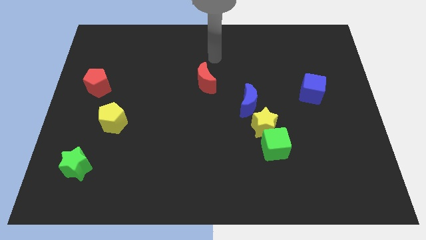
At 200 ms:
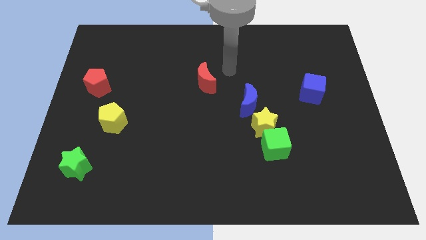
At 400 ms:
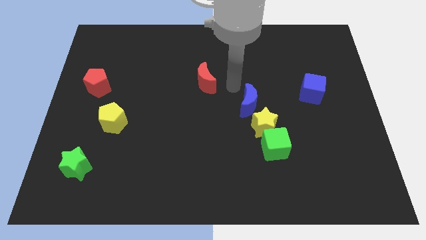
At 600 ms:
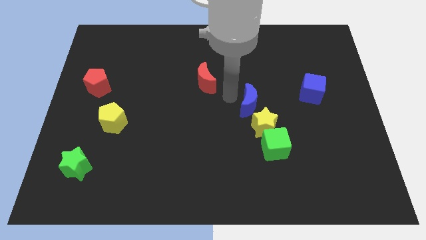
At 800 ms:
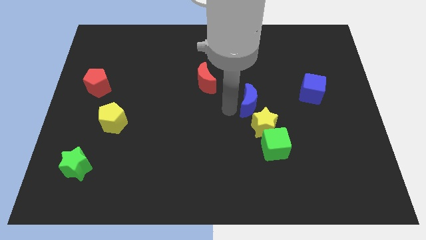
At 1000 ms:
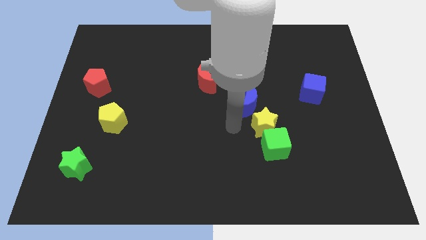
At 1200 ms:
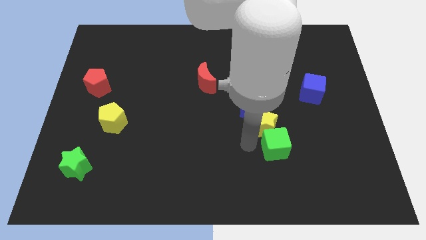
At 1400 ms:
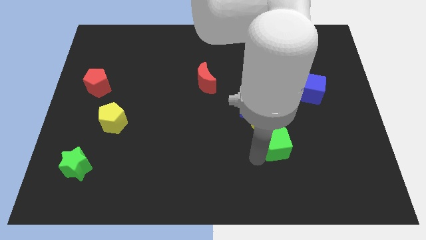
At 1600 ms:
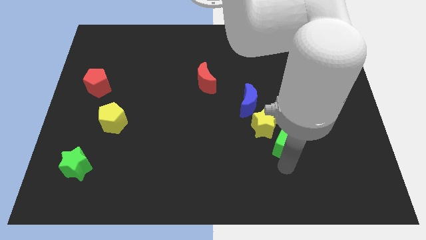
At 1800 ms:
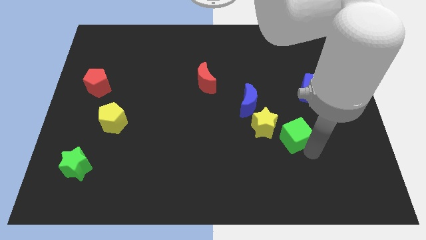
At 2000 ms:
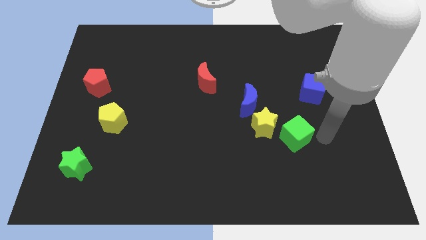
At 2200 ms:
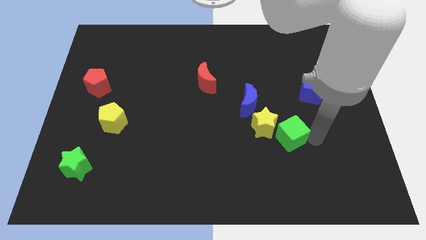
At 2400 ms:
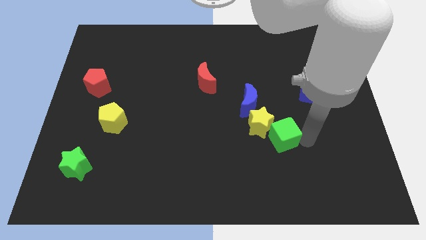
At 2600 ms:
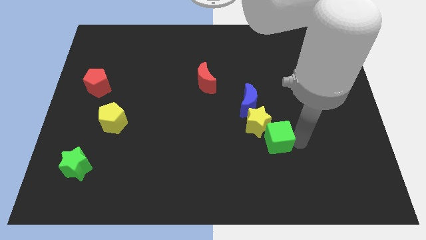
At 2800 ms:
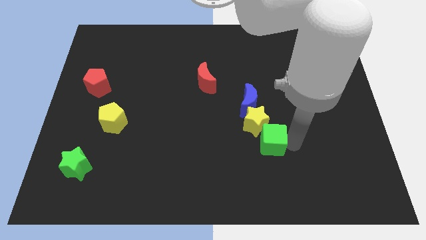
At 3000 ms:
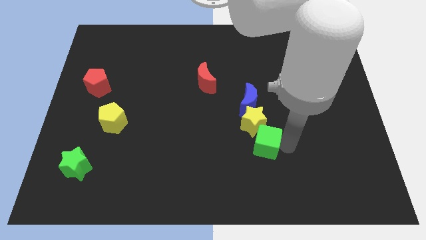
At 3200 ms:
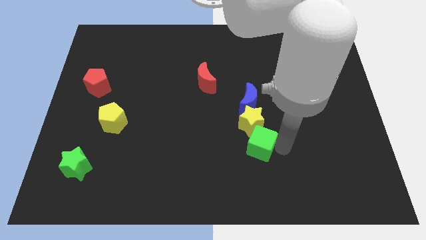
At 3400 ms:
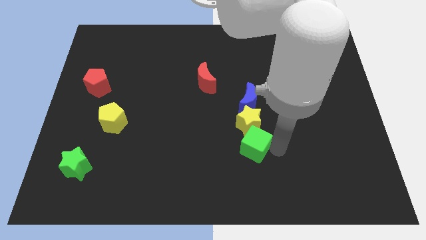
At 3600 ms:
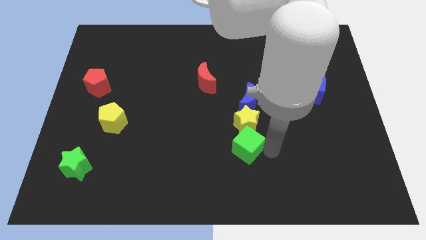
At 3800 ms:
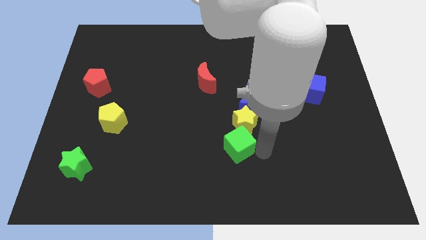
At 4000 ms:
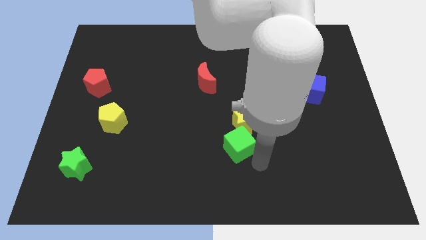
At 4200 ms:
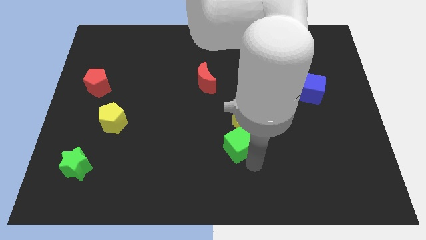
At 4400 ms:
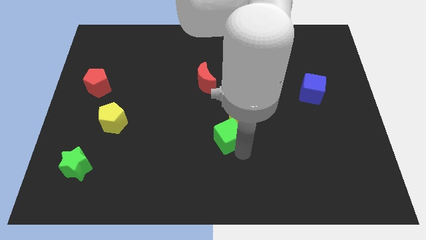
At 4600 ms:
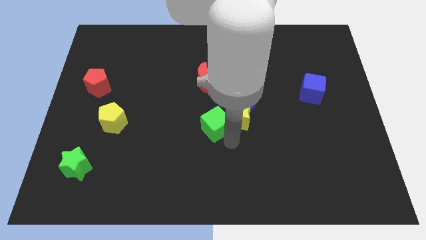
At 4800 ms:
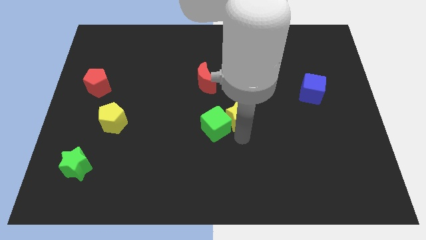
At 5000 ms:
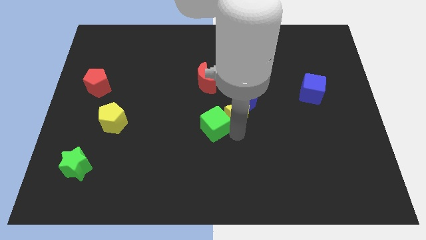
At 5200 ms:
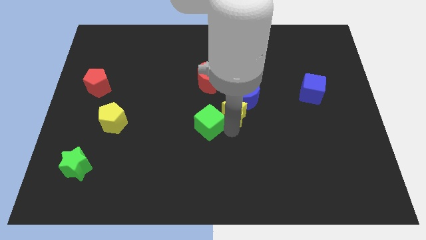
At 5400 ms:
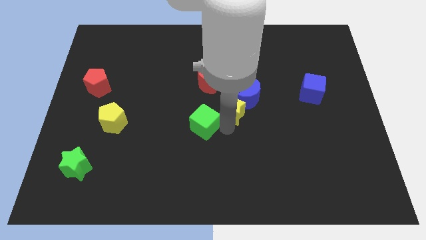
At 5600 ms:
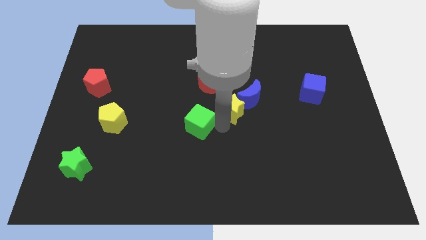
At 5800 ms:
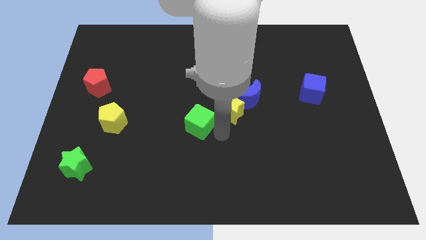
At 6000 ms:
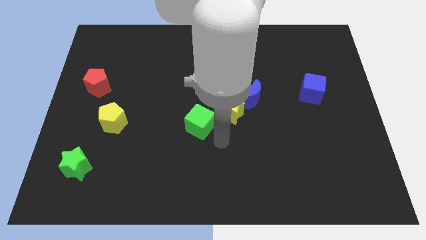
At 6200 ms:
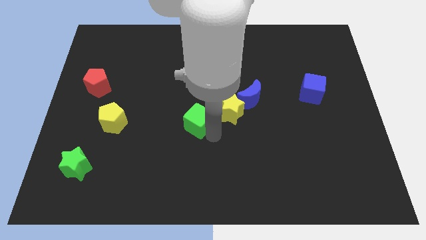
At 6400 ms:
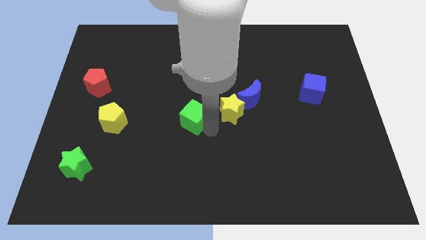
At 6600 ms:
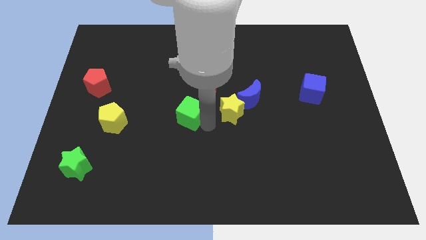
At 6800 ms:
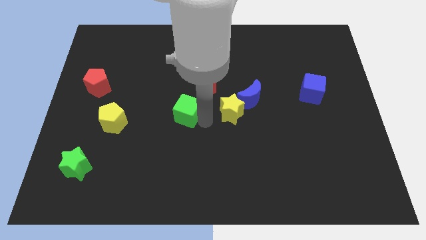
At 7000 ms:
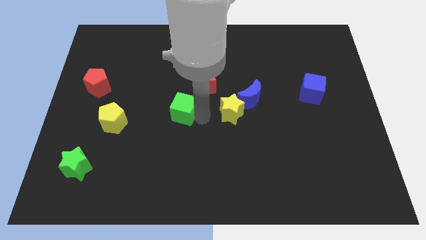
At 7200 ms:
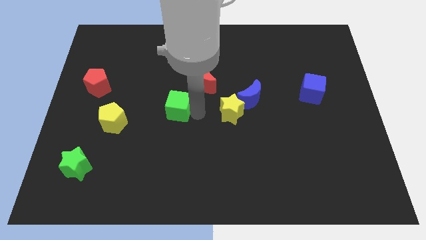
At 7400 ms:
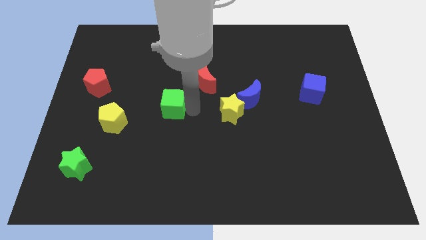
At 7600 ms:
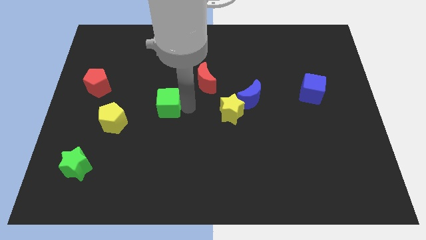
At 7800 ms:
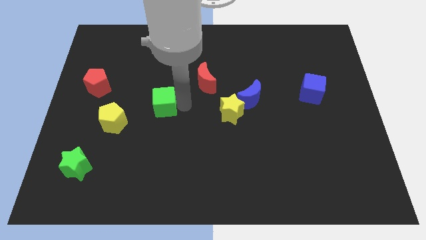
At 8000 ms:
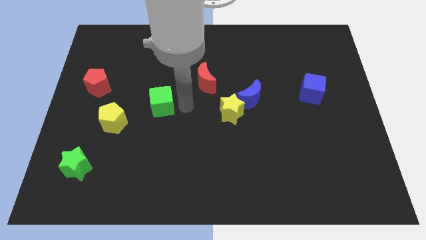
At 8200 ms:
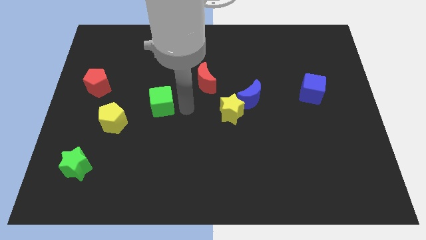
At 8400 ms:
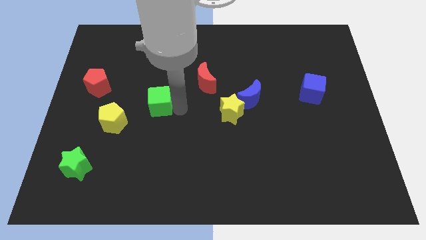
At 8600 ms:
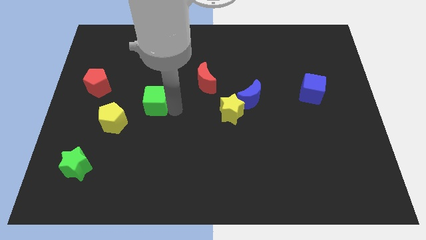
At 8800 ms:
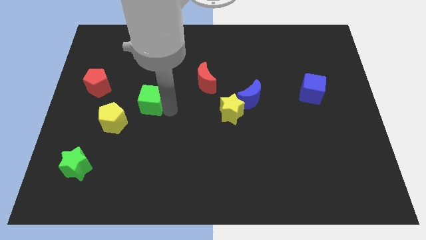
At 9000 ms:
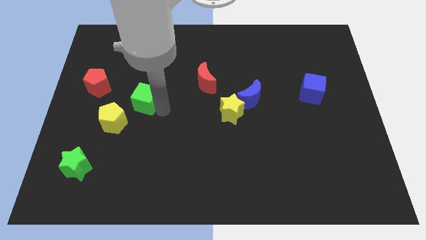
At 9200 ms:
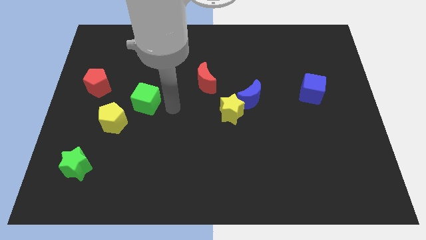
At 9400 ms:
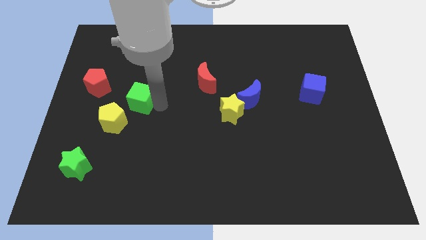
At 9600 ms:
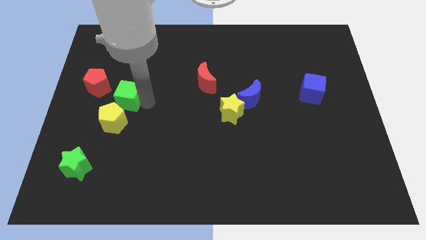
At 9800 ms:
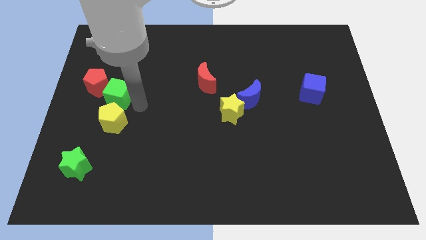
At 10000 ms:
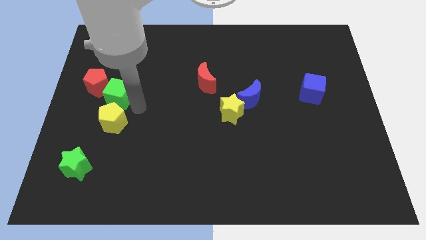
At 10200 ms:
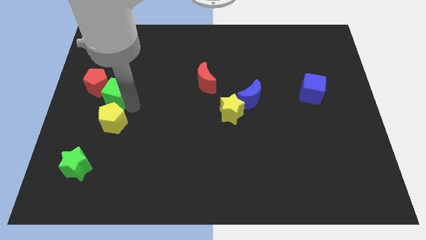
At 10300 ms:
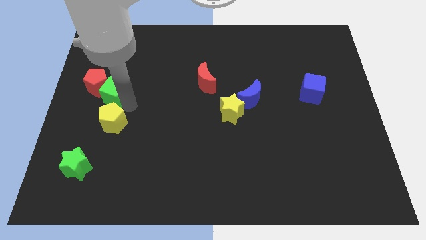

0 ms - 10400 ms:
slide the green cube next to the red pentagon

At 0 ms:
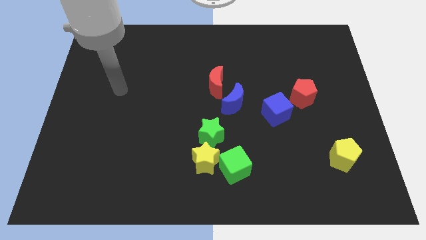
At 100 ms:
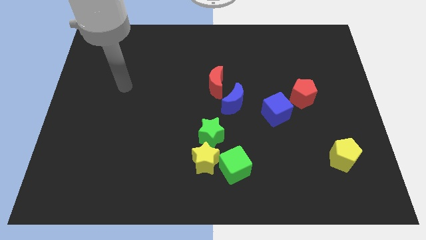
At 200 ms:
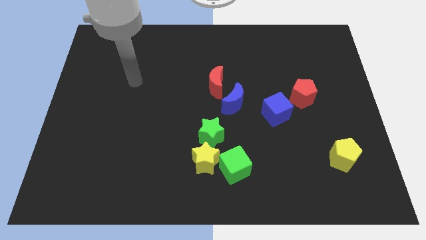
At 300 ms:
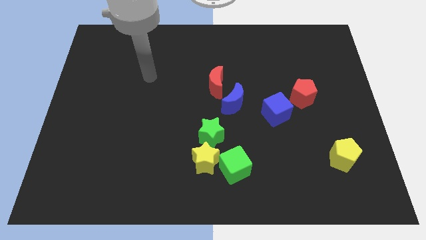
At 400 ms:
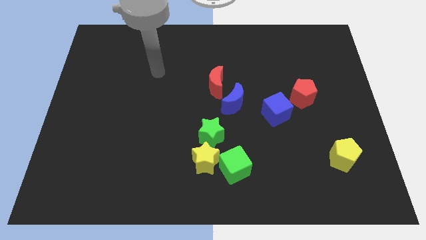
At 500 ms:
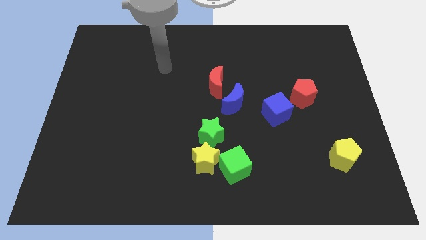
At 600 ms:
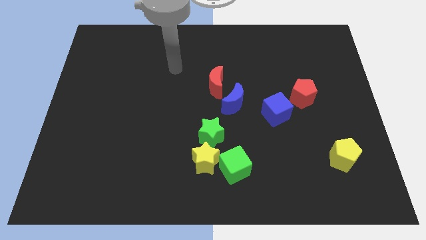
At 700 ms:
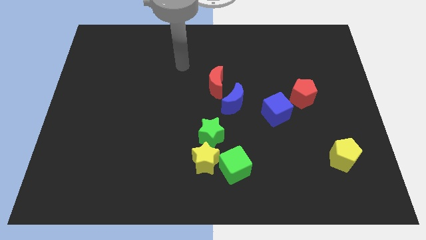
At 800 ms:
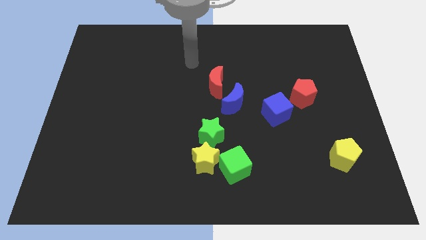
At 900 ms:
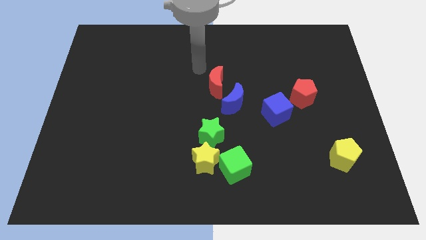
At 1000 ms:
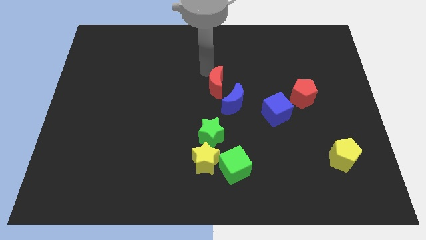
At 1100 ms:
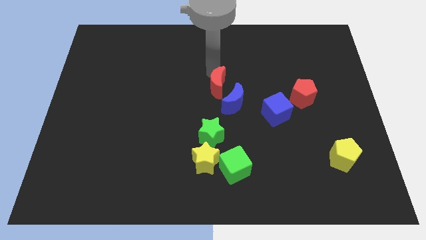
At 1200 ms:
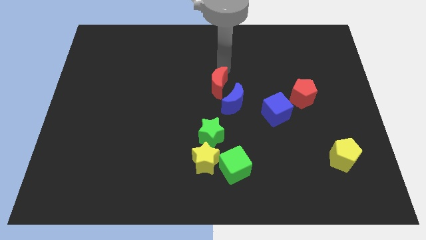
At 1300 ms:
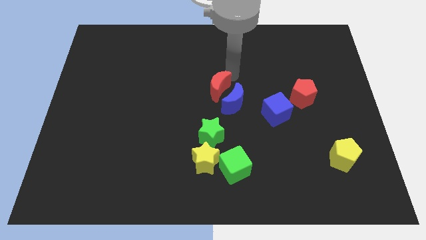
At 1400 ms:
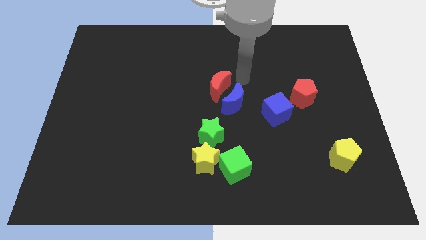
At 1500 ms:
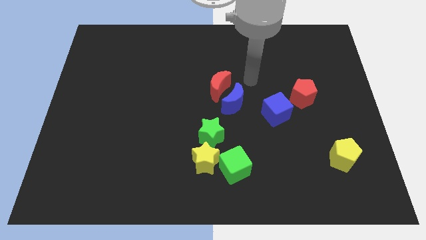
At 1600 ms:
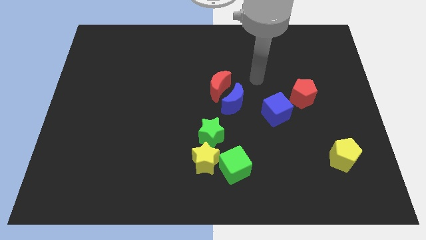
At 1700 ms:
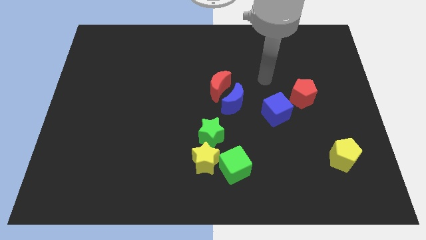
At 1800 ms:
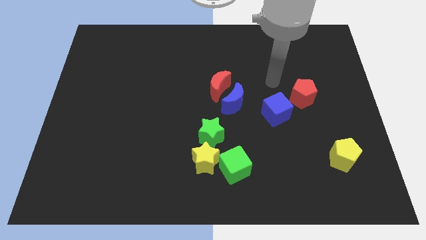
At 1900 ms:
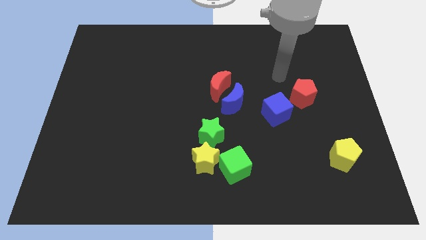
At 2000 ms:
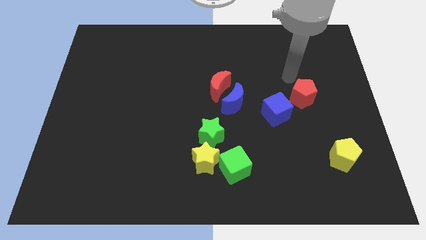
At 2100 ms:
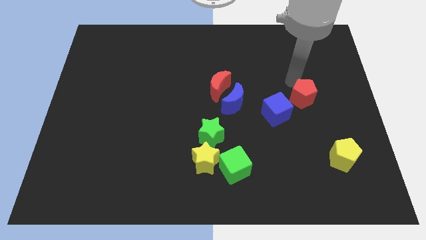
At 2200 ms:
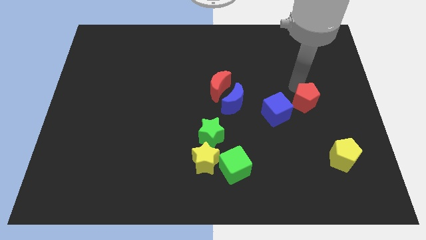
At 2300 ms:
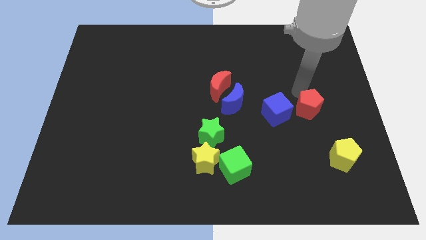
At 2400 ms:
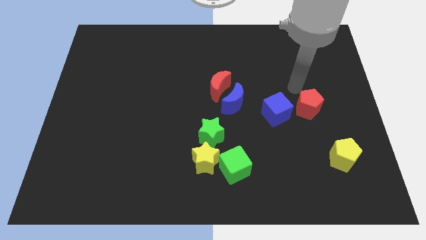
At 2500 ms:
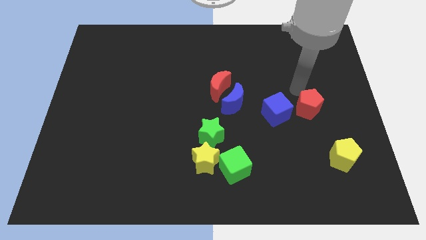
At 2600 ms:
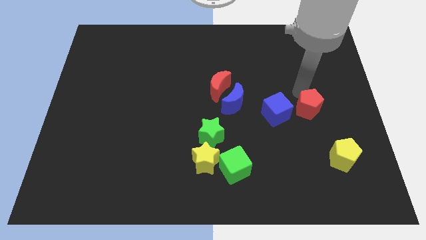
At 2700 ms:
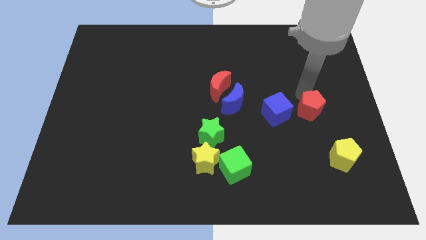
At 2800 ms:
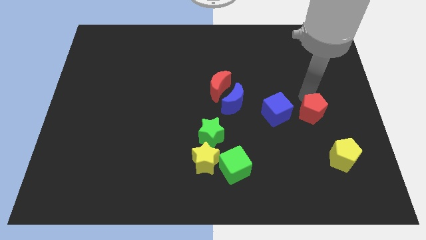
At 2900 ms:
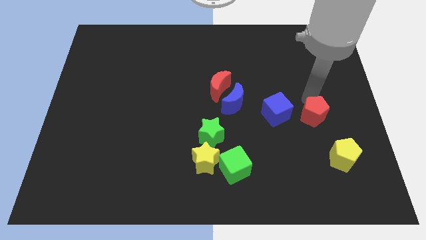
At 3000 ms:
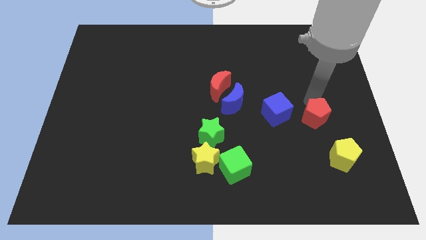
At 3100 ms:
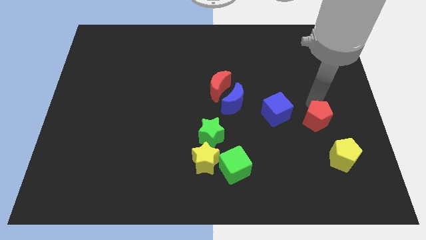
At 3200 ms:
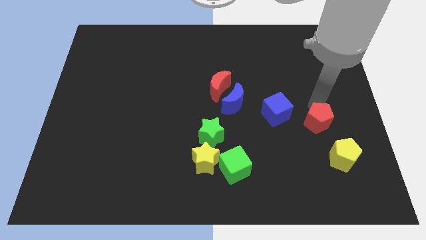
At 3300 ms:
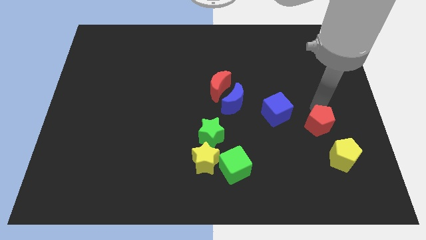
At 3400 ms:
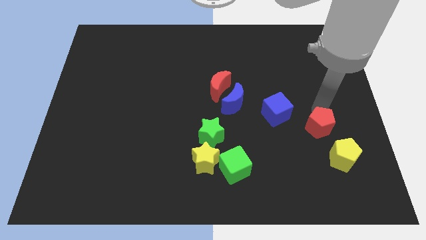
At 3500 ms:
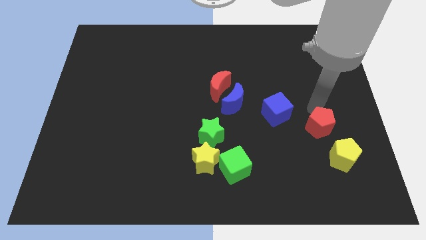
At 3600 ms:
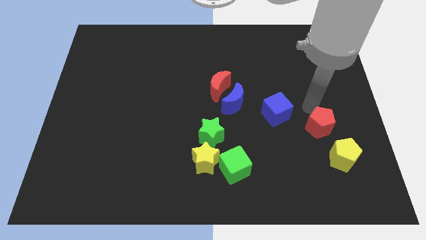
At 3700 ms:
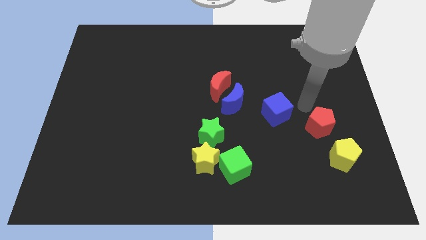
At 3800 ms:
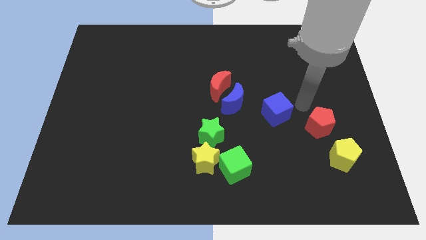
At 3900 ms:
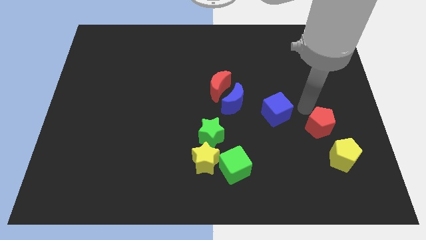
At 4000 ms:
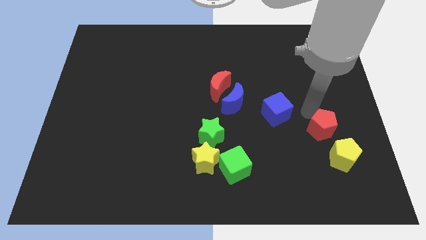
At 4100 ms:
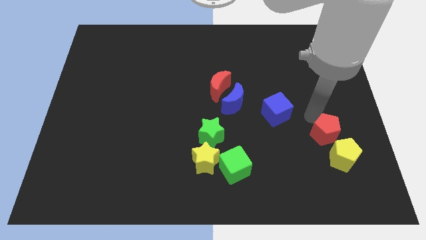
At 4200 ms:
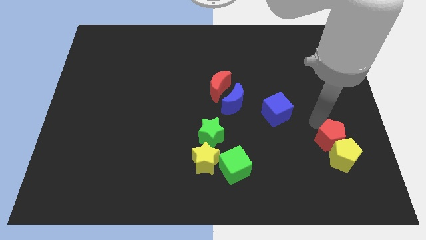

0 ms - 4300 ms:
put the red pentagon next to the yellow pentagon
